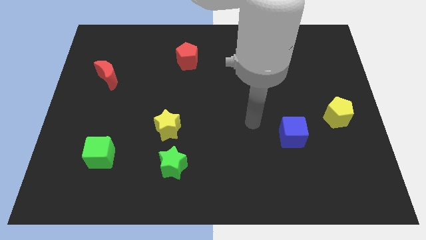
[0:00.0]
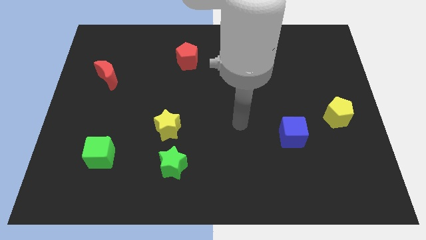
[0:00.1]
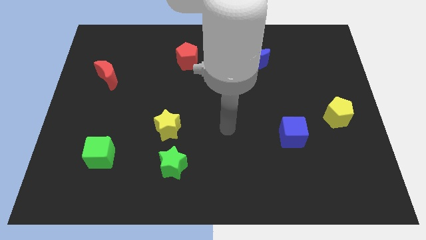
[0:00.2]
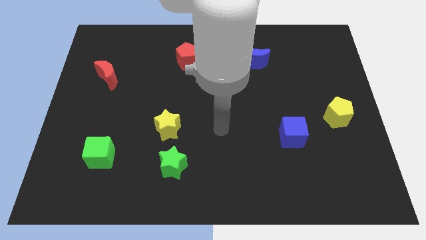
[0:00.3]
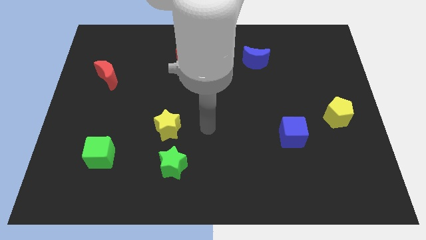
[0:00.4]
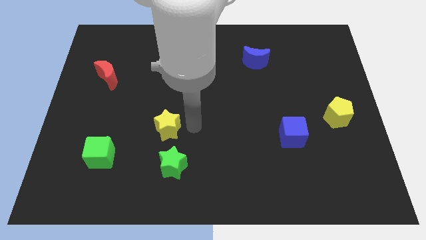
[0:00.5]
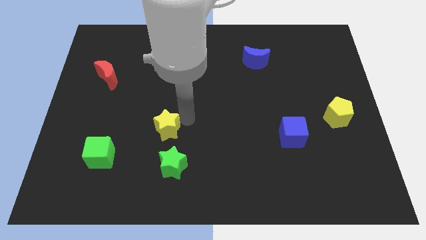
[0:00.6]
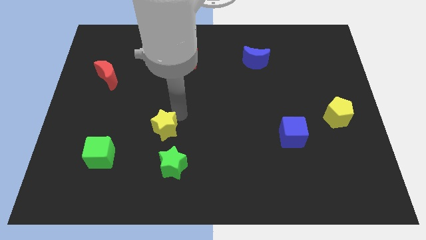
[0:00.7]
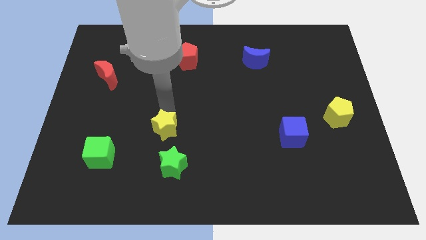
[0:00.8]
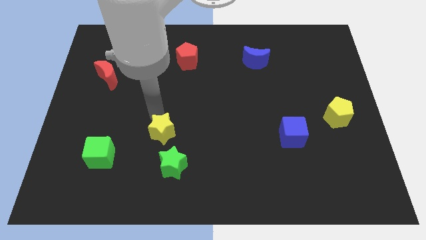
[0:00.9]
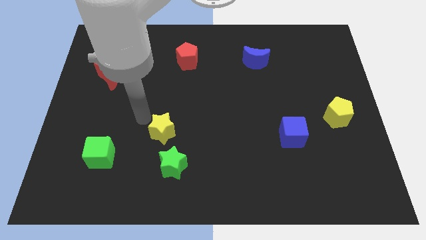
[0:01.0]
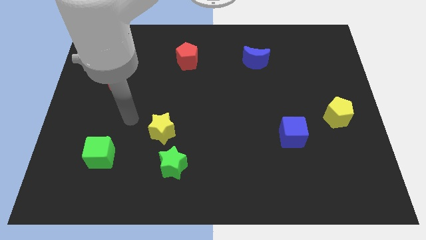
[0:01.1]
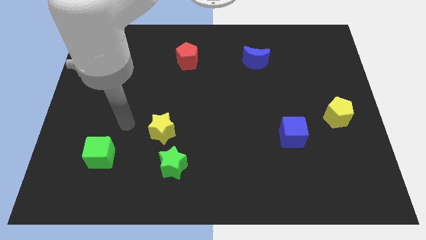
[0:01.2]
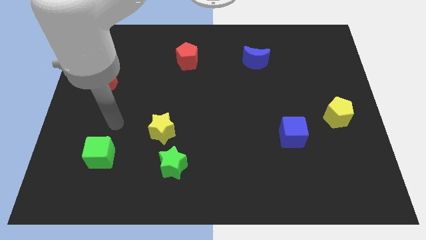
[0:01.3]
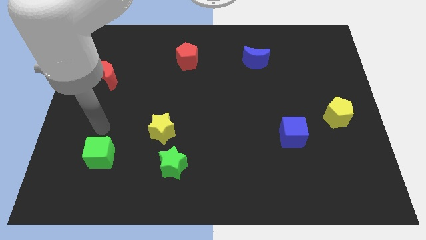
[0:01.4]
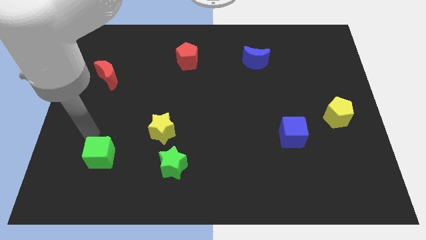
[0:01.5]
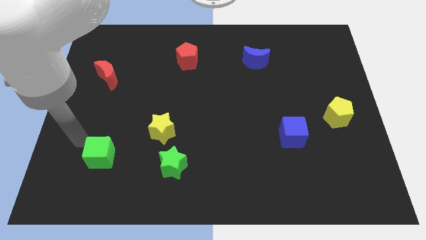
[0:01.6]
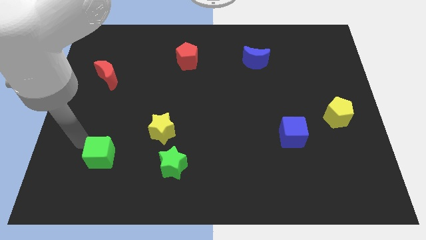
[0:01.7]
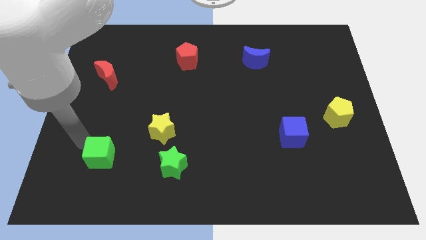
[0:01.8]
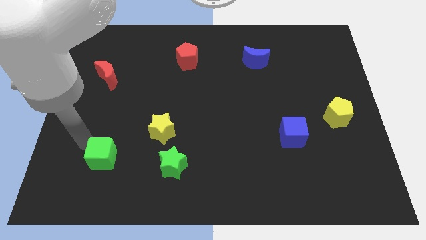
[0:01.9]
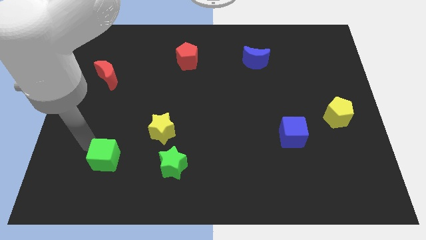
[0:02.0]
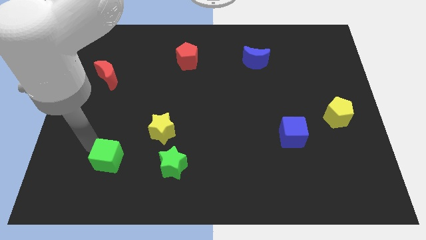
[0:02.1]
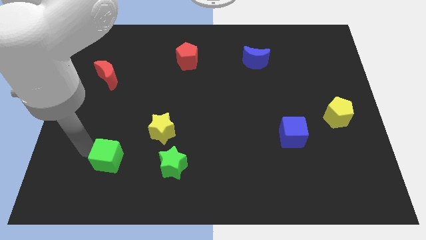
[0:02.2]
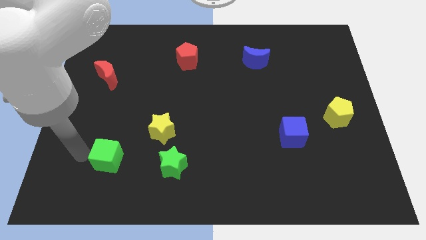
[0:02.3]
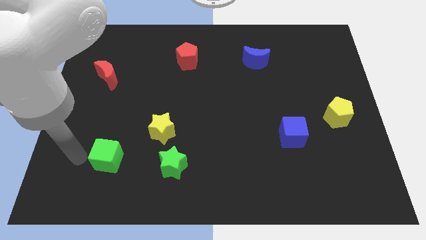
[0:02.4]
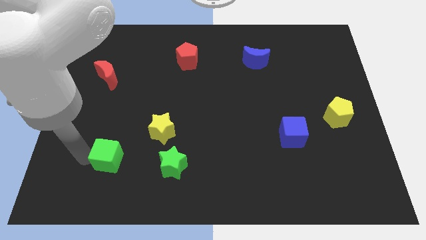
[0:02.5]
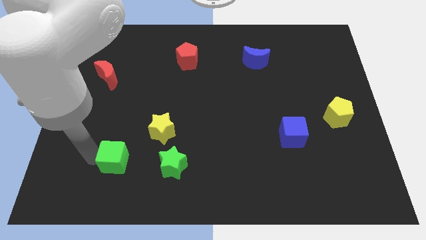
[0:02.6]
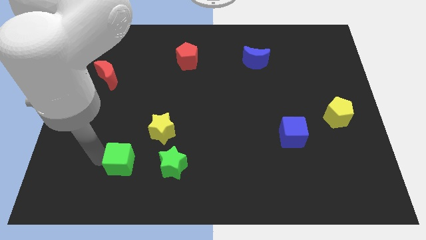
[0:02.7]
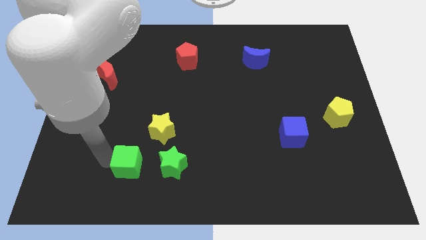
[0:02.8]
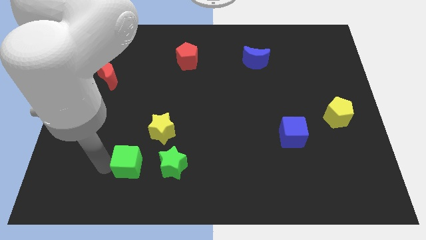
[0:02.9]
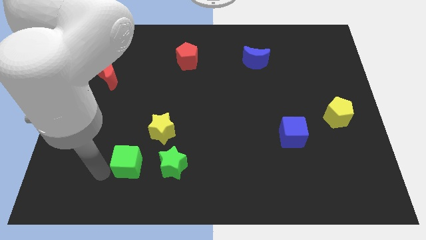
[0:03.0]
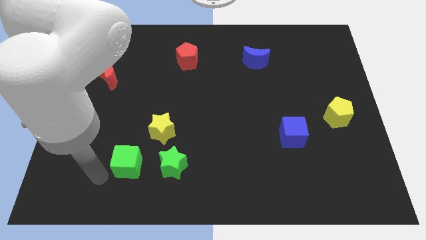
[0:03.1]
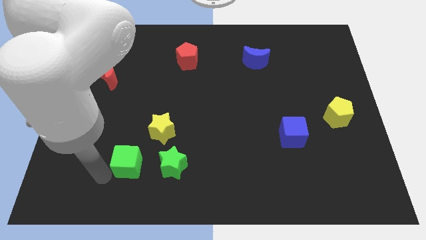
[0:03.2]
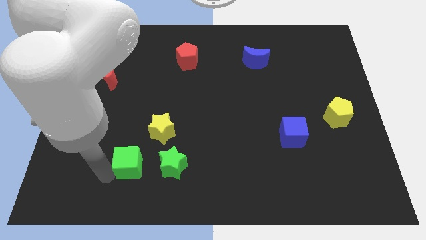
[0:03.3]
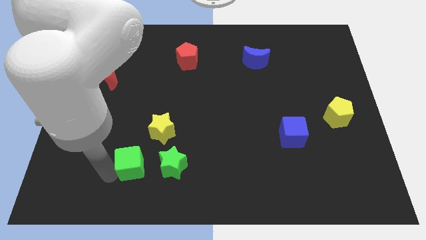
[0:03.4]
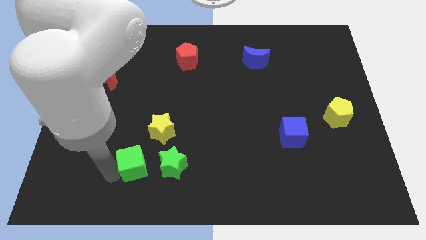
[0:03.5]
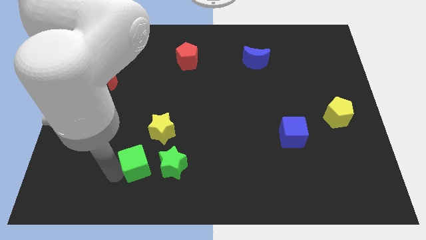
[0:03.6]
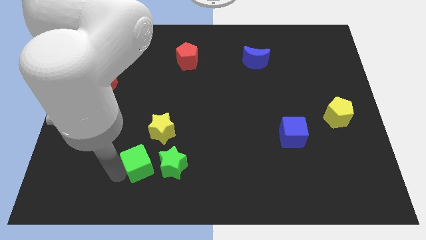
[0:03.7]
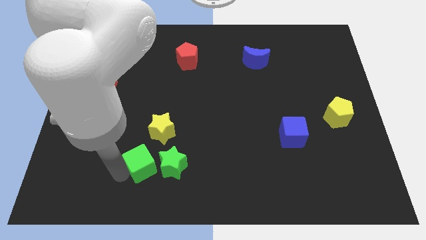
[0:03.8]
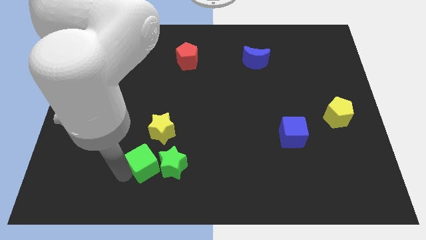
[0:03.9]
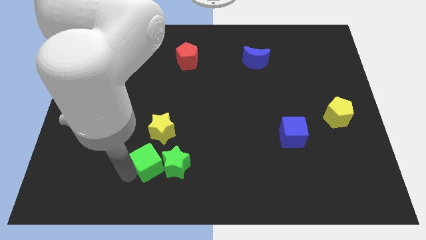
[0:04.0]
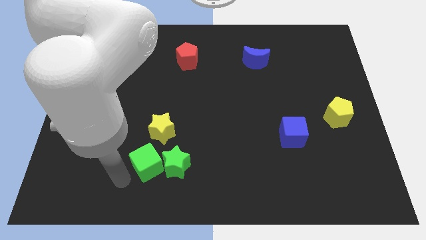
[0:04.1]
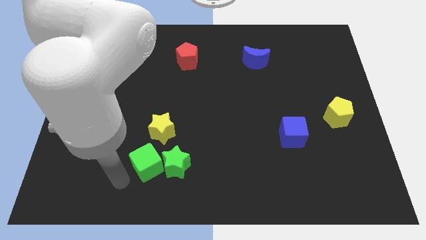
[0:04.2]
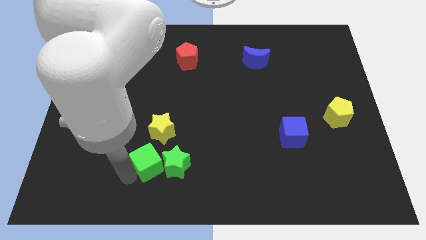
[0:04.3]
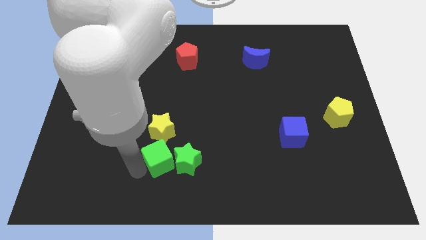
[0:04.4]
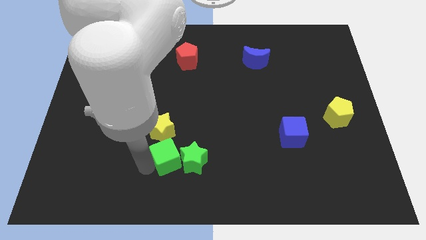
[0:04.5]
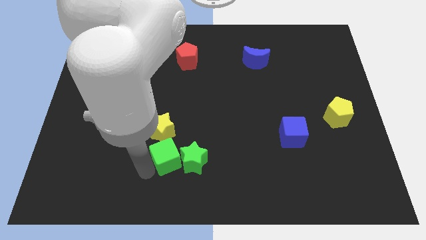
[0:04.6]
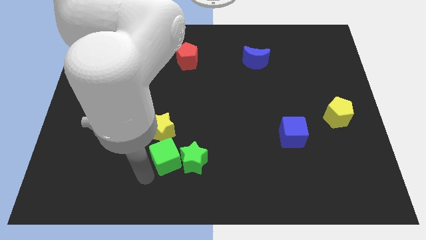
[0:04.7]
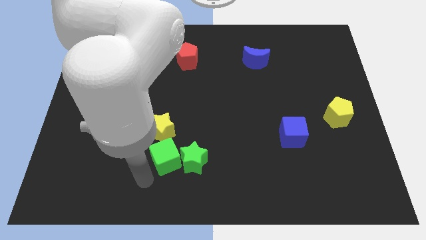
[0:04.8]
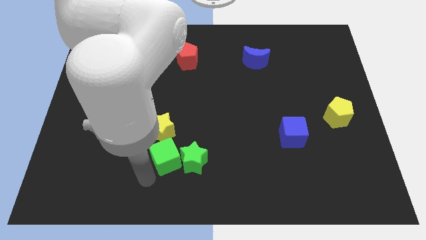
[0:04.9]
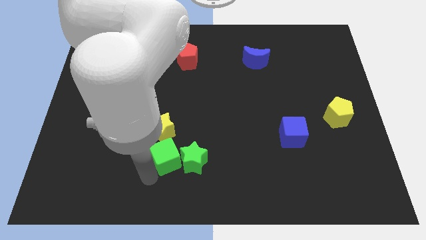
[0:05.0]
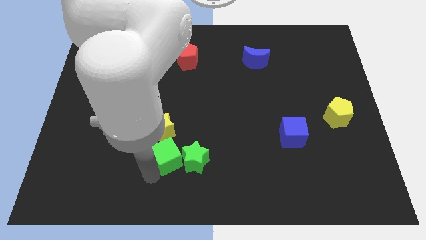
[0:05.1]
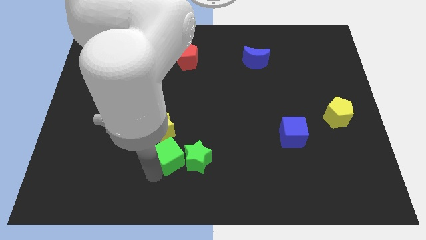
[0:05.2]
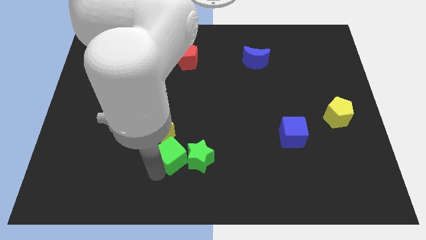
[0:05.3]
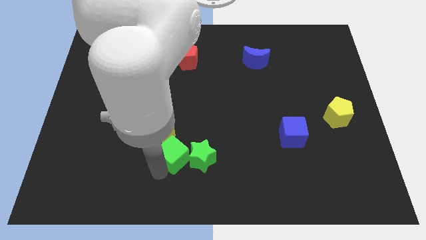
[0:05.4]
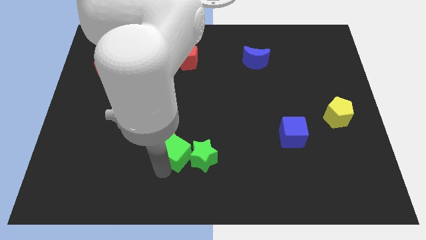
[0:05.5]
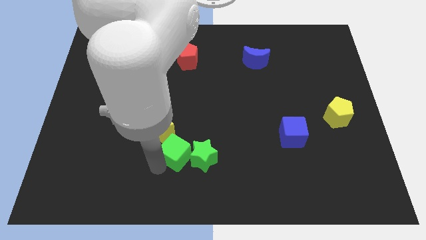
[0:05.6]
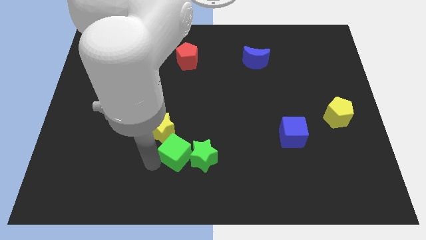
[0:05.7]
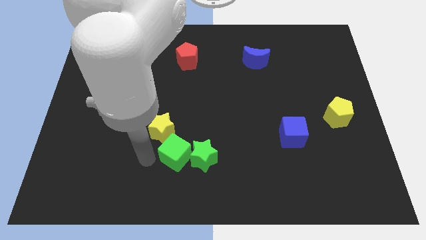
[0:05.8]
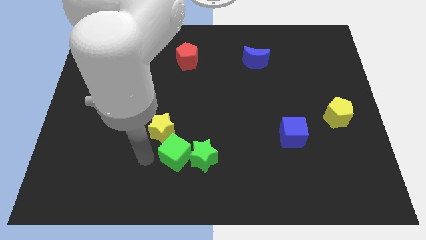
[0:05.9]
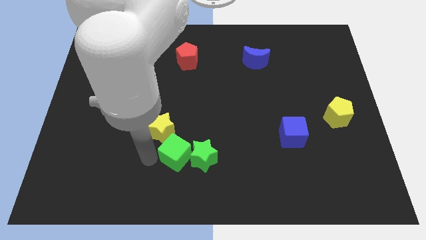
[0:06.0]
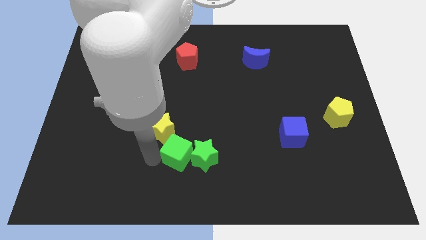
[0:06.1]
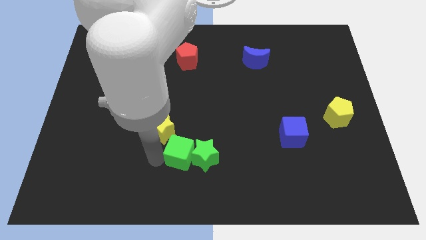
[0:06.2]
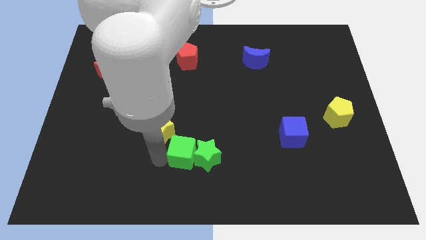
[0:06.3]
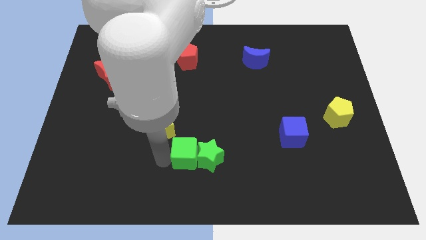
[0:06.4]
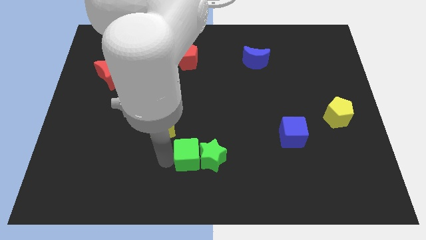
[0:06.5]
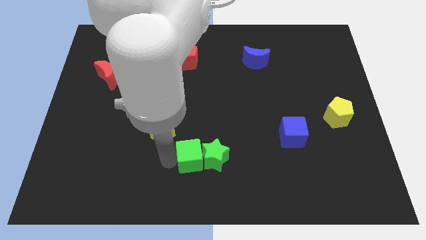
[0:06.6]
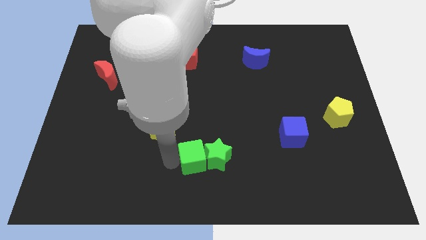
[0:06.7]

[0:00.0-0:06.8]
slide the green cube to the right

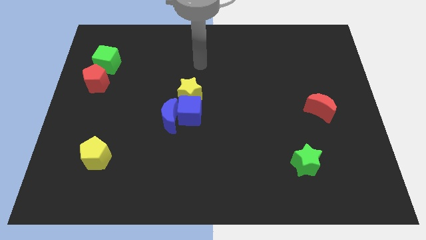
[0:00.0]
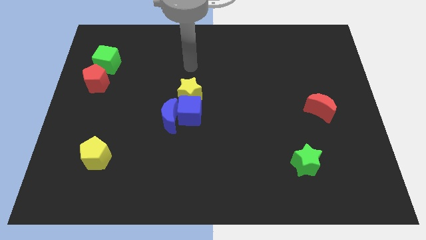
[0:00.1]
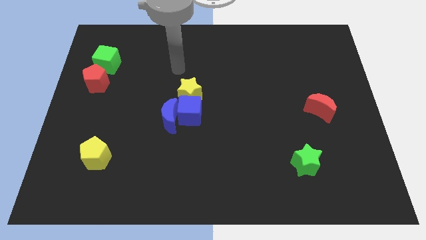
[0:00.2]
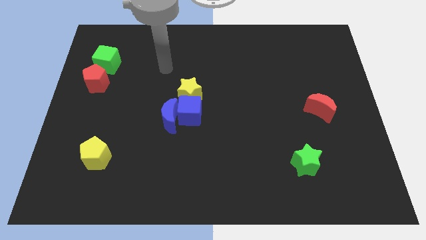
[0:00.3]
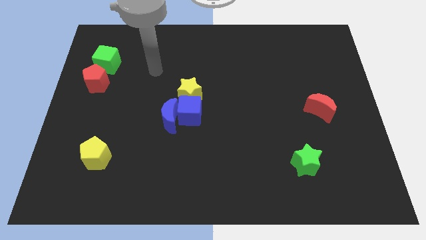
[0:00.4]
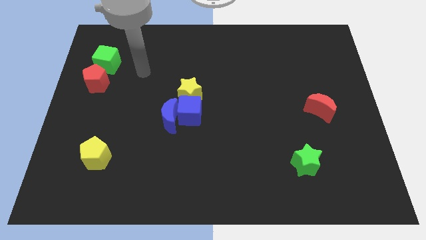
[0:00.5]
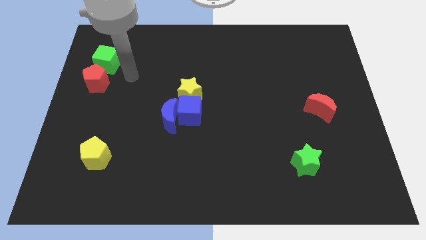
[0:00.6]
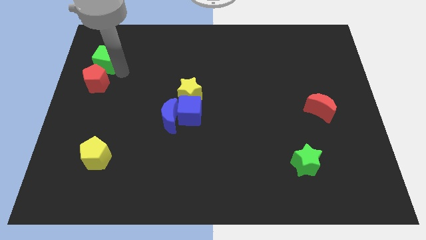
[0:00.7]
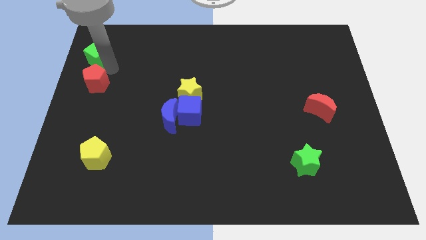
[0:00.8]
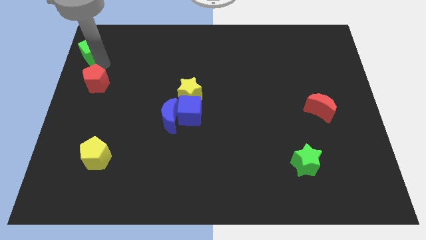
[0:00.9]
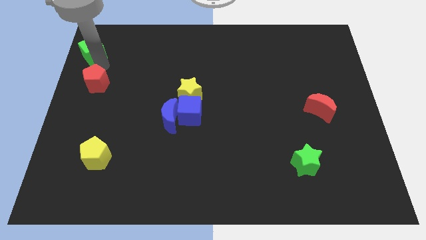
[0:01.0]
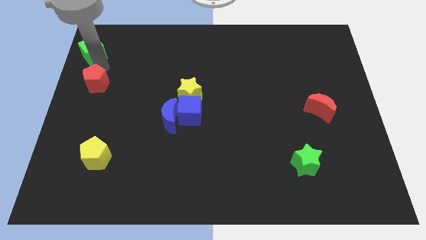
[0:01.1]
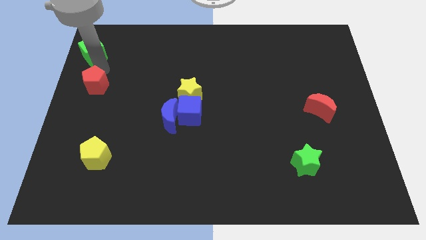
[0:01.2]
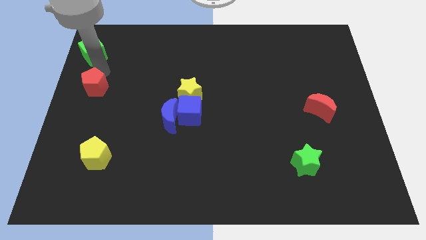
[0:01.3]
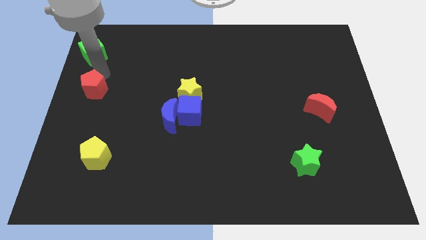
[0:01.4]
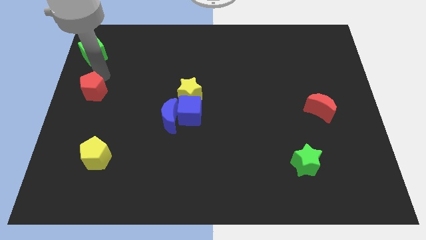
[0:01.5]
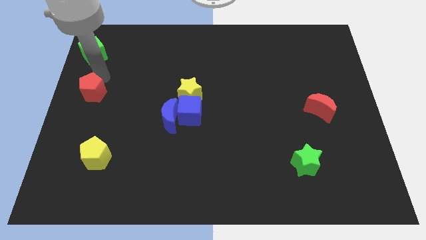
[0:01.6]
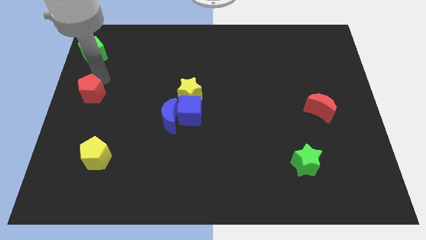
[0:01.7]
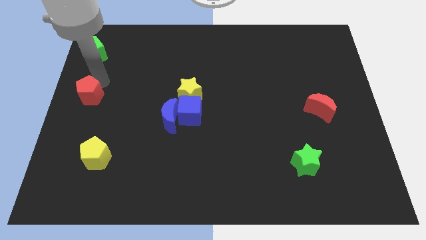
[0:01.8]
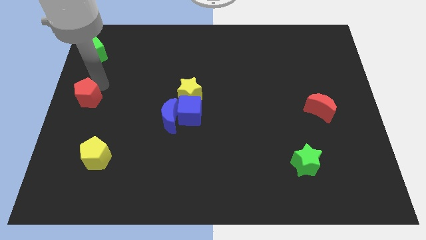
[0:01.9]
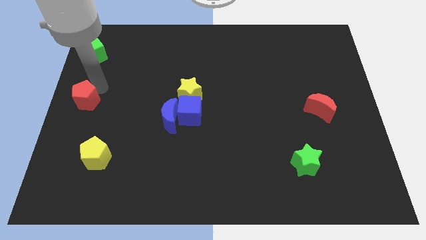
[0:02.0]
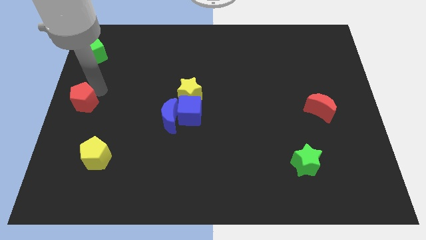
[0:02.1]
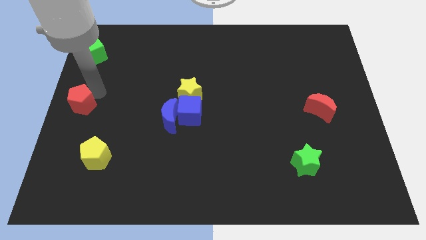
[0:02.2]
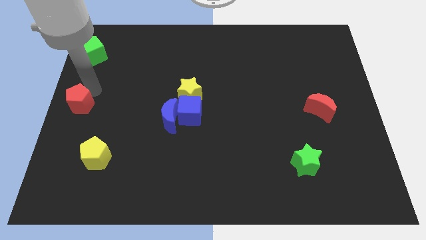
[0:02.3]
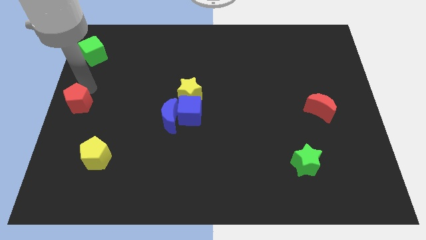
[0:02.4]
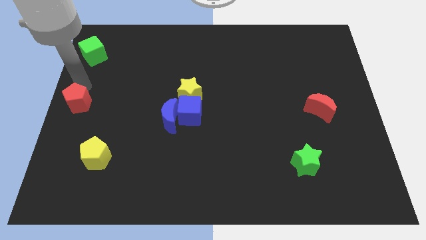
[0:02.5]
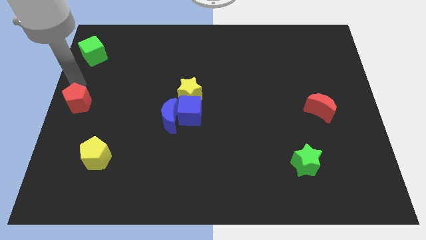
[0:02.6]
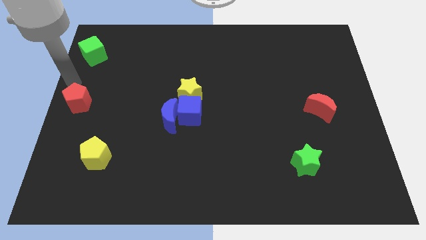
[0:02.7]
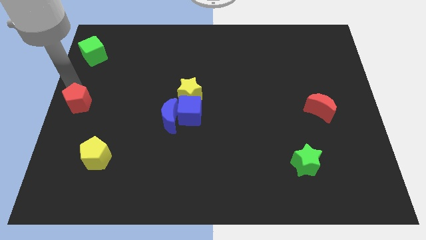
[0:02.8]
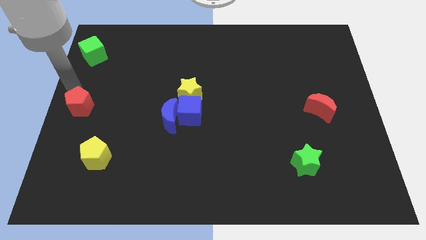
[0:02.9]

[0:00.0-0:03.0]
slightly move the red pentagon down
